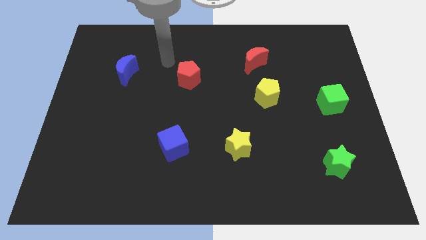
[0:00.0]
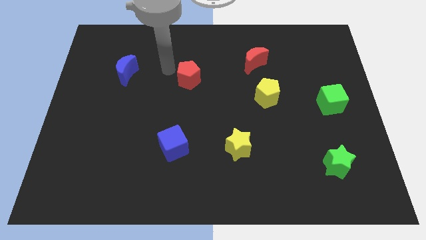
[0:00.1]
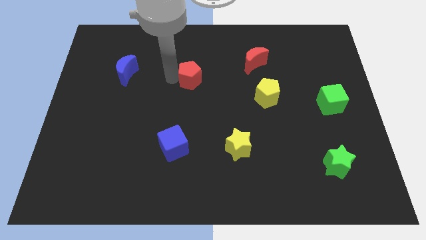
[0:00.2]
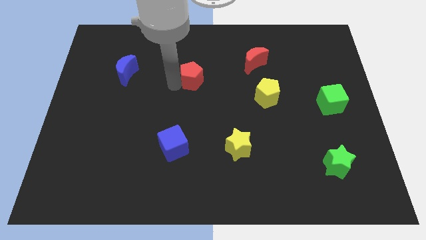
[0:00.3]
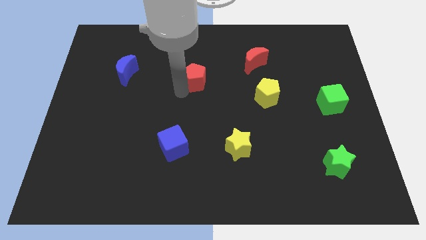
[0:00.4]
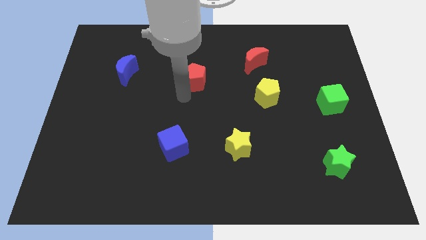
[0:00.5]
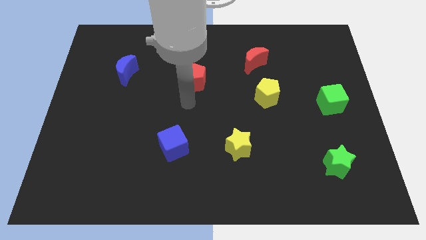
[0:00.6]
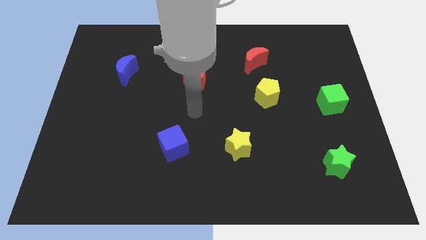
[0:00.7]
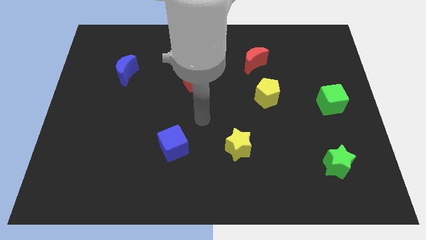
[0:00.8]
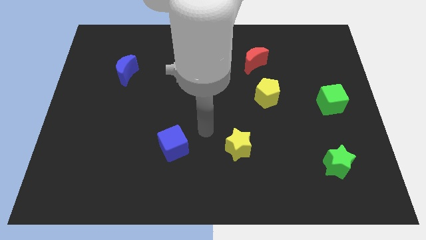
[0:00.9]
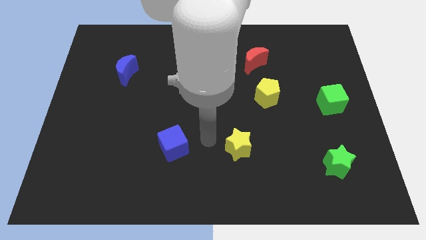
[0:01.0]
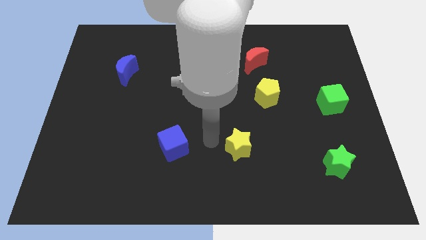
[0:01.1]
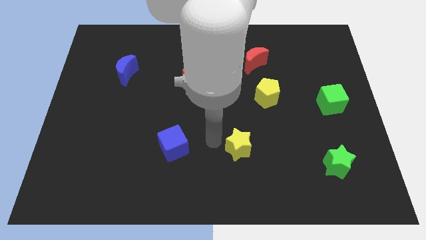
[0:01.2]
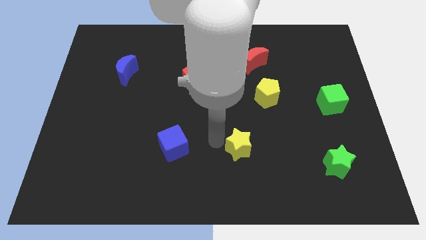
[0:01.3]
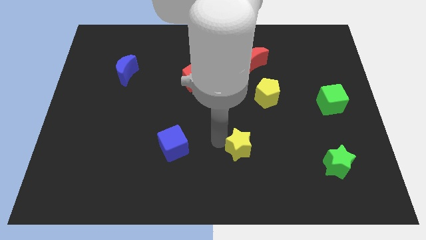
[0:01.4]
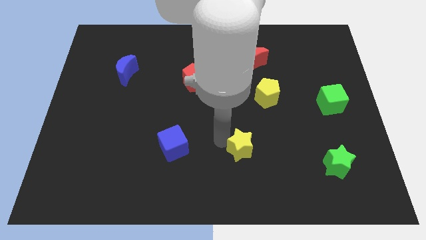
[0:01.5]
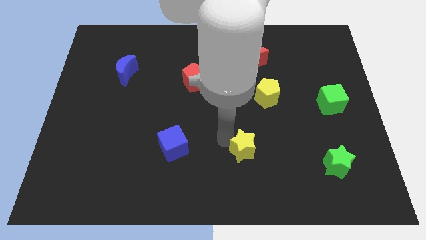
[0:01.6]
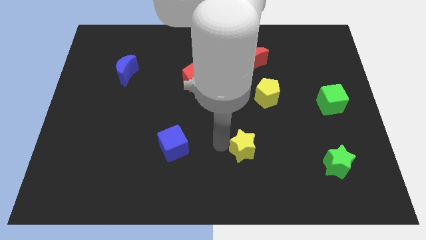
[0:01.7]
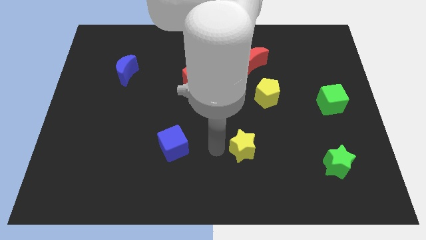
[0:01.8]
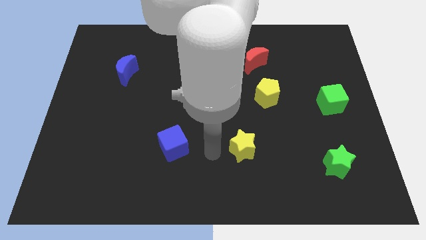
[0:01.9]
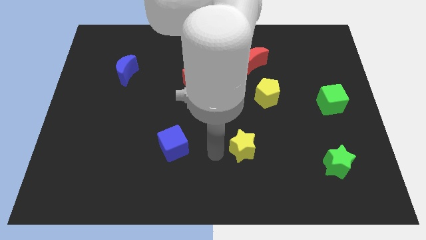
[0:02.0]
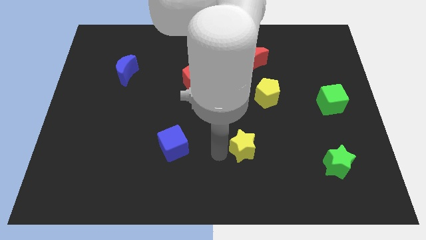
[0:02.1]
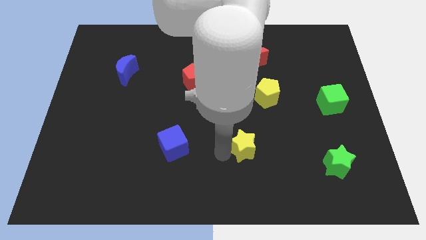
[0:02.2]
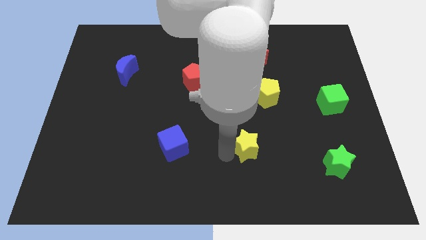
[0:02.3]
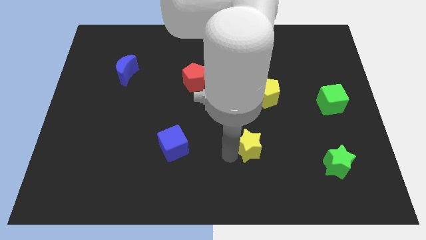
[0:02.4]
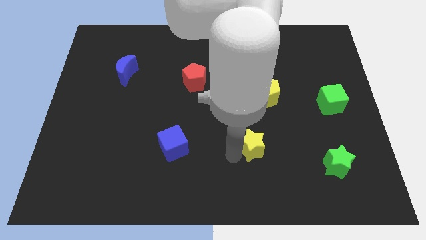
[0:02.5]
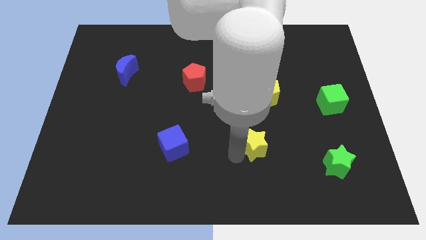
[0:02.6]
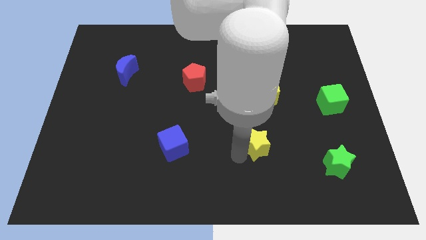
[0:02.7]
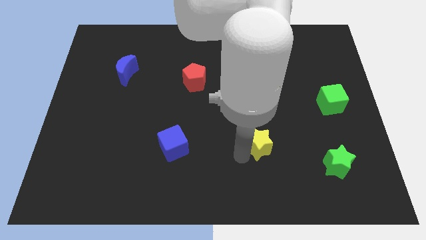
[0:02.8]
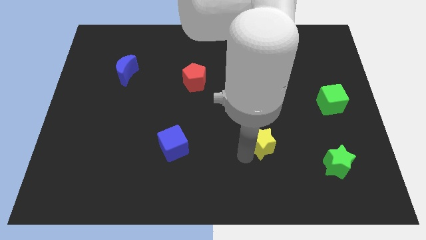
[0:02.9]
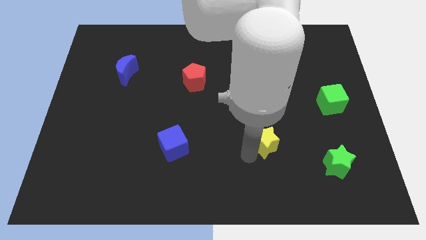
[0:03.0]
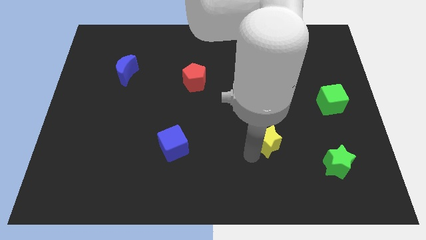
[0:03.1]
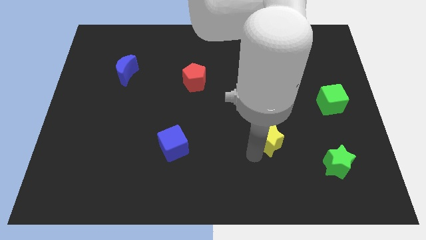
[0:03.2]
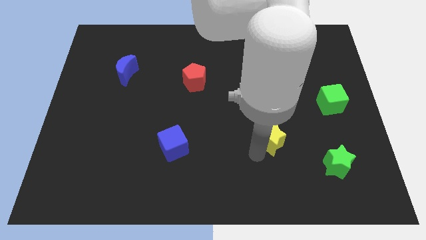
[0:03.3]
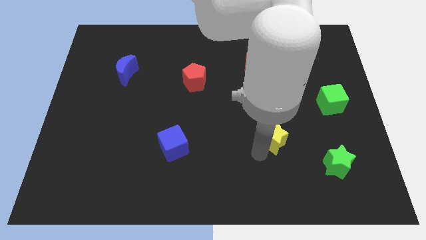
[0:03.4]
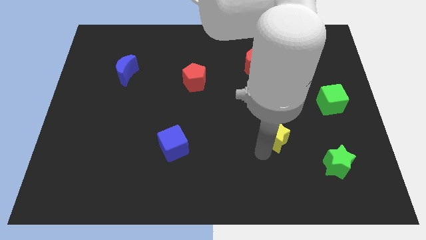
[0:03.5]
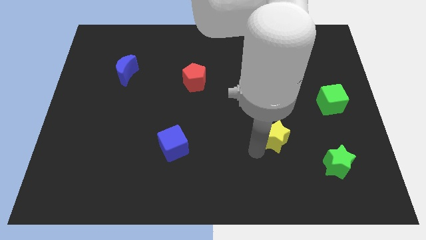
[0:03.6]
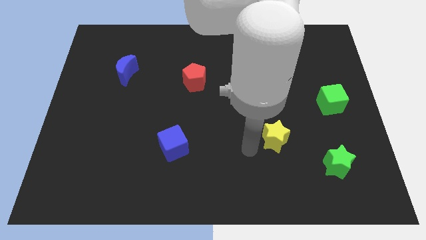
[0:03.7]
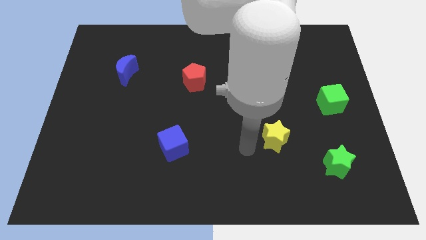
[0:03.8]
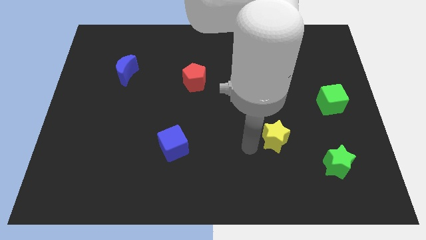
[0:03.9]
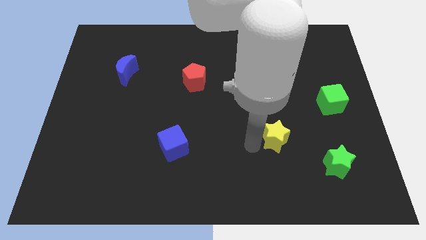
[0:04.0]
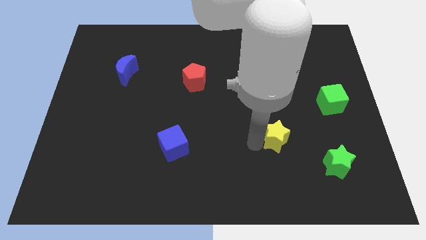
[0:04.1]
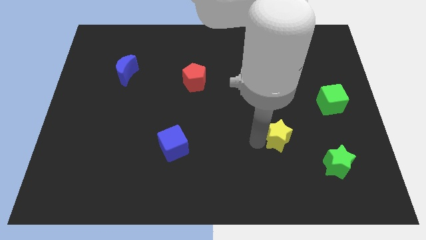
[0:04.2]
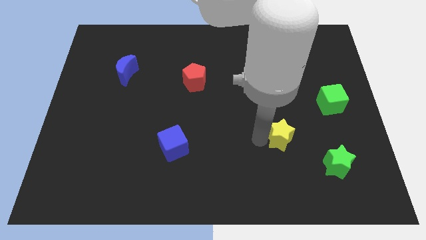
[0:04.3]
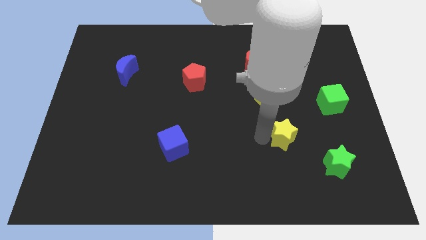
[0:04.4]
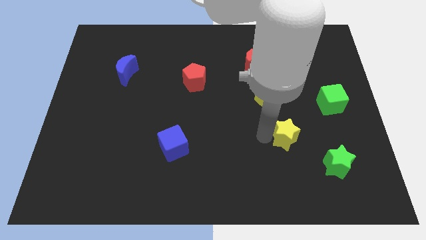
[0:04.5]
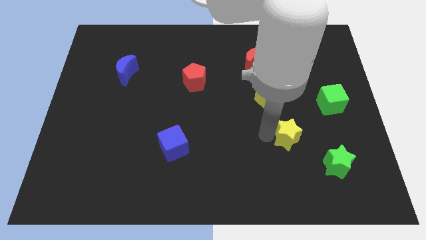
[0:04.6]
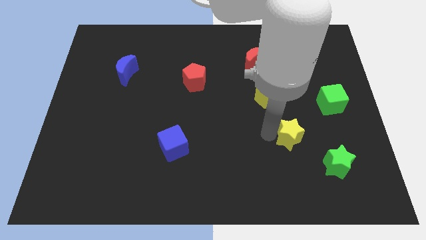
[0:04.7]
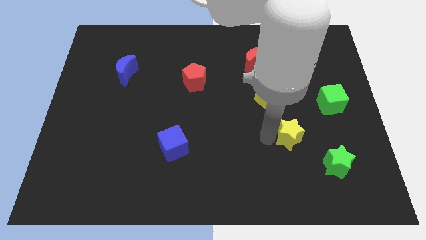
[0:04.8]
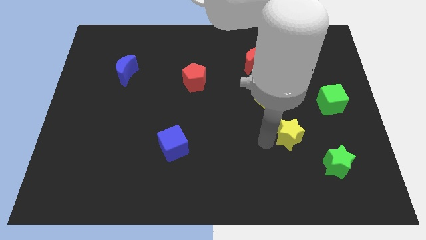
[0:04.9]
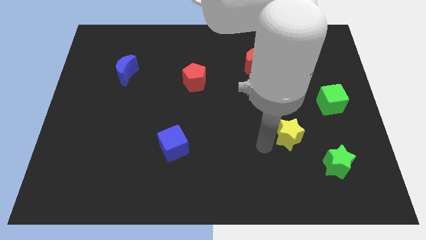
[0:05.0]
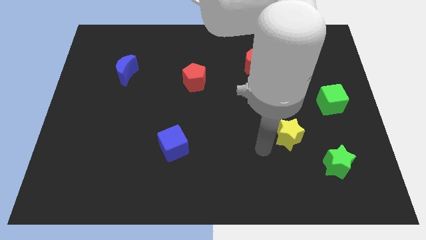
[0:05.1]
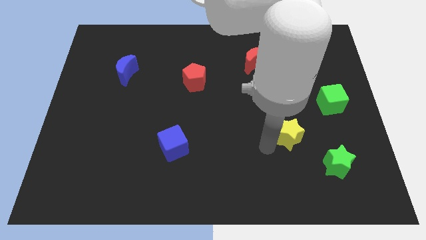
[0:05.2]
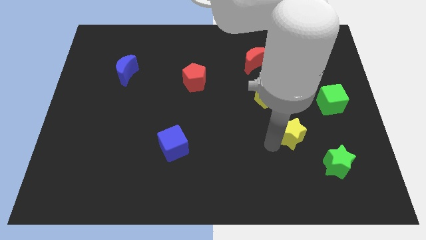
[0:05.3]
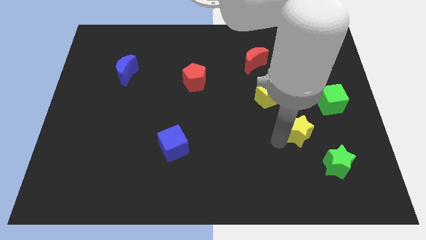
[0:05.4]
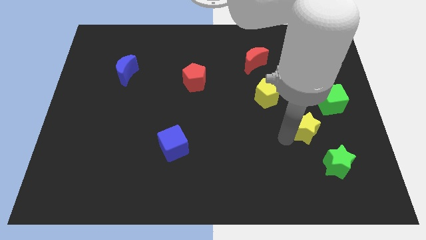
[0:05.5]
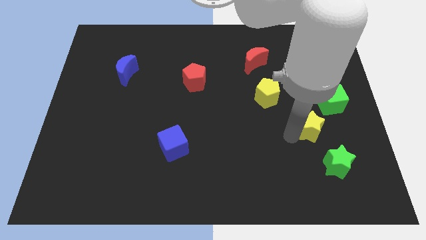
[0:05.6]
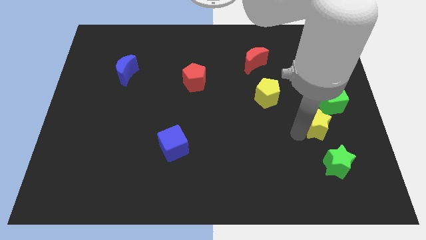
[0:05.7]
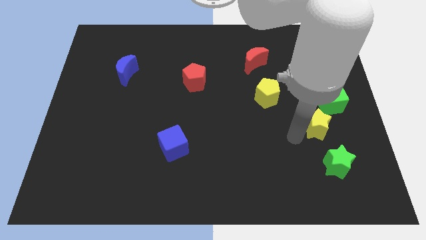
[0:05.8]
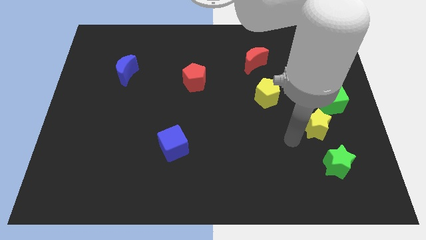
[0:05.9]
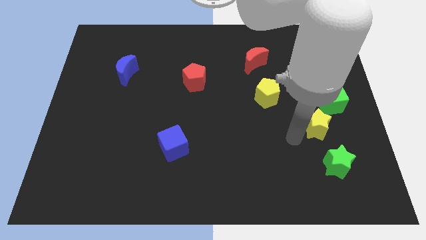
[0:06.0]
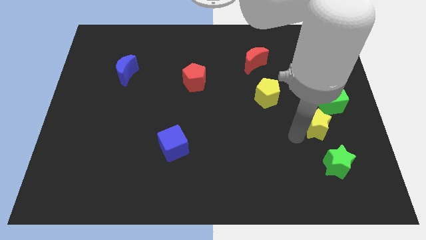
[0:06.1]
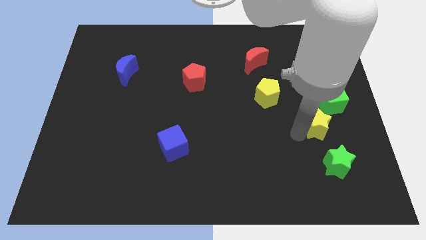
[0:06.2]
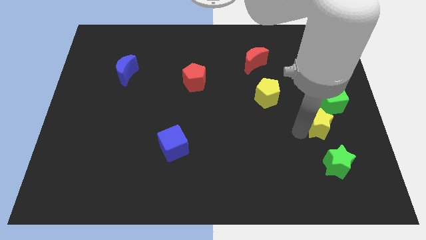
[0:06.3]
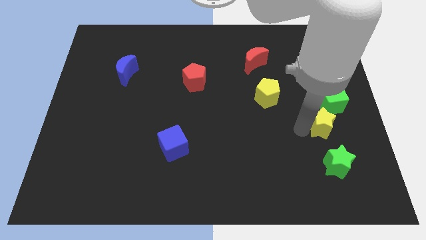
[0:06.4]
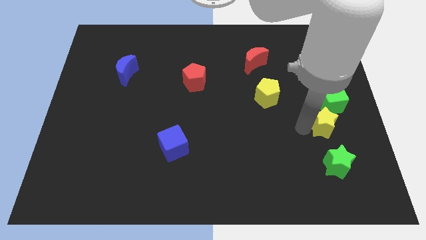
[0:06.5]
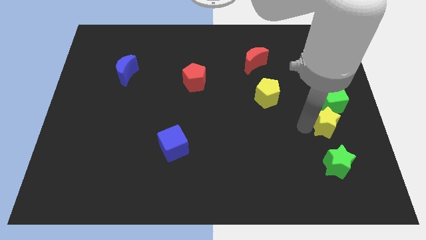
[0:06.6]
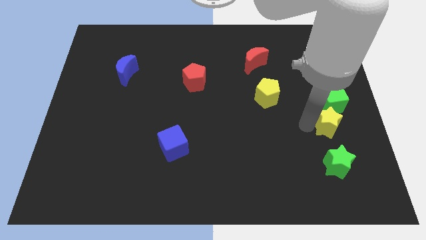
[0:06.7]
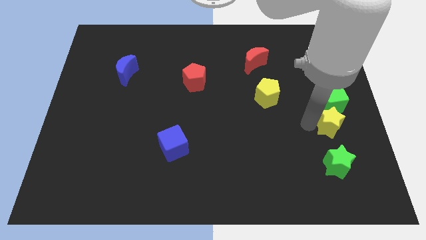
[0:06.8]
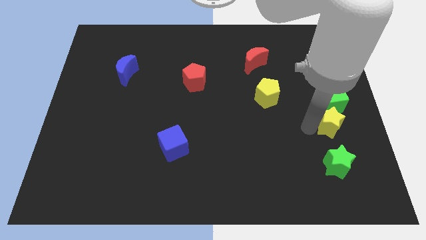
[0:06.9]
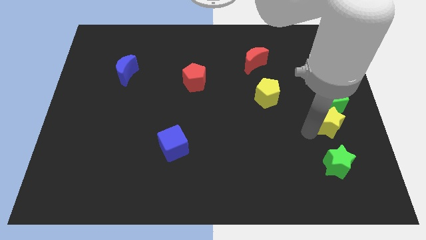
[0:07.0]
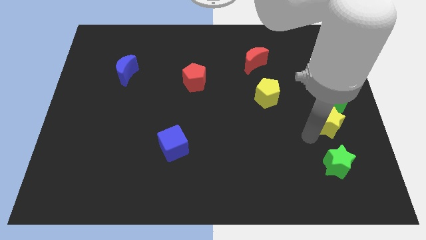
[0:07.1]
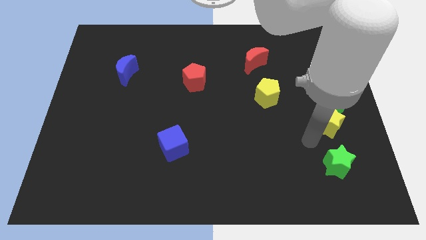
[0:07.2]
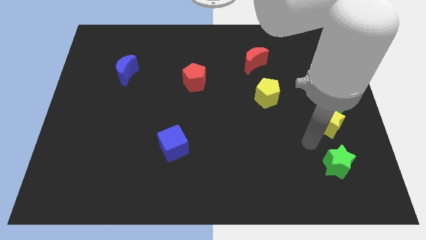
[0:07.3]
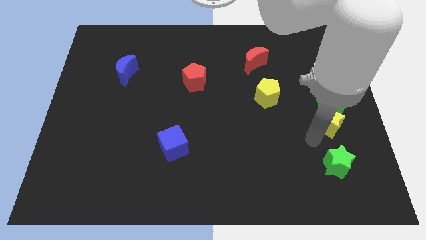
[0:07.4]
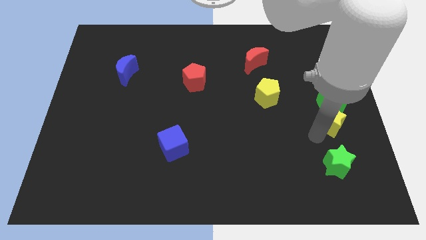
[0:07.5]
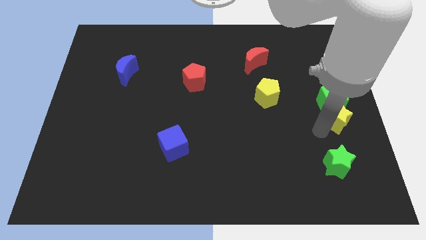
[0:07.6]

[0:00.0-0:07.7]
move the yellow star to the right side of the board
